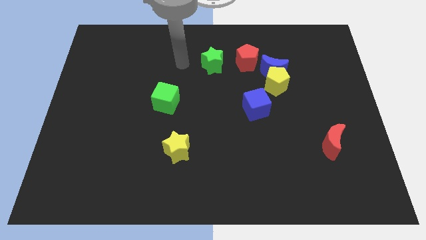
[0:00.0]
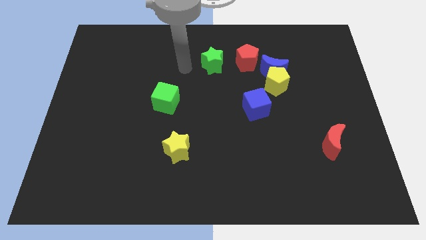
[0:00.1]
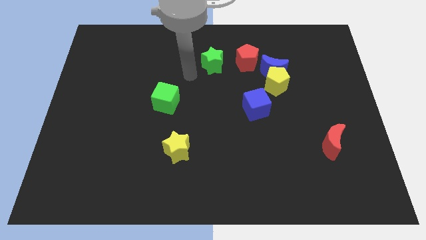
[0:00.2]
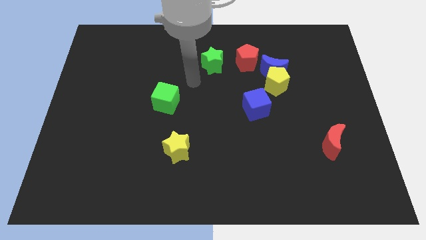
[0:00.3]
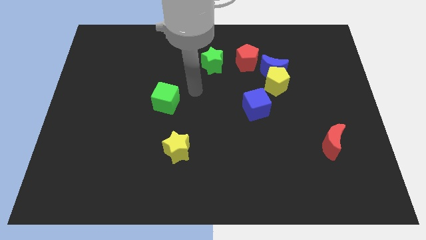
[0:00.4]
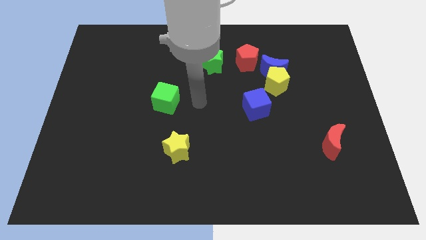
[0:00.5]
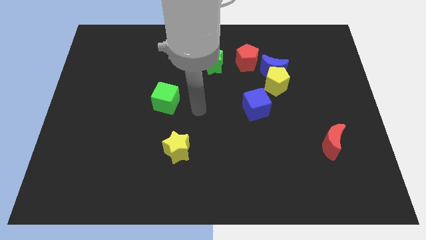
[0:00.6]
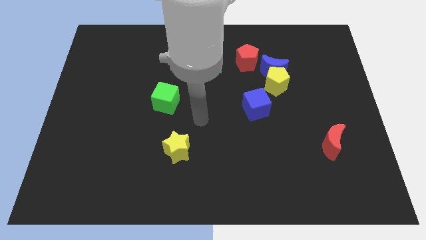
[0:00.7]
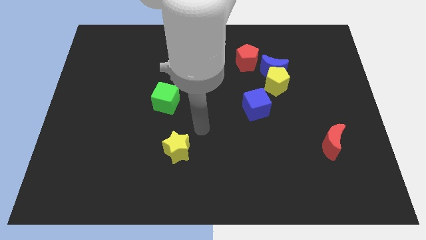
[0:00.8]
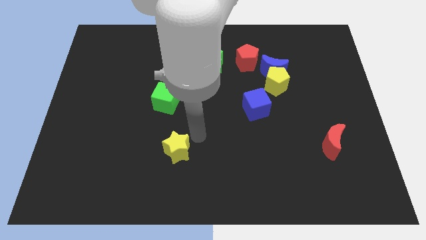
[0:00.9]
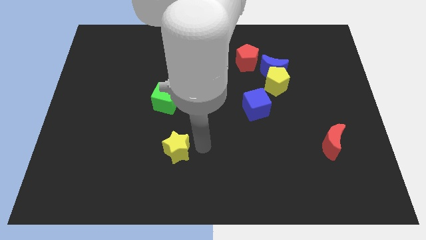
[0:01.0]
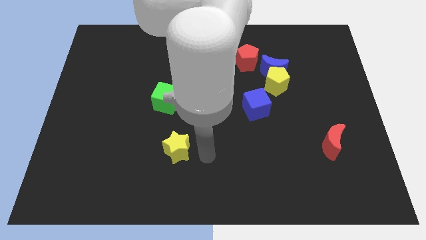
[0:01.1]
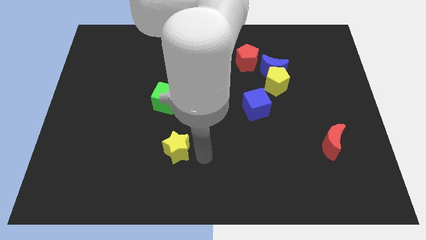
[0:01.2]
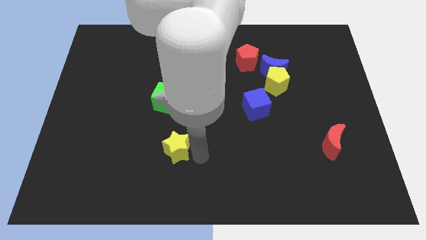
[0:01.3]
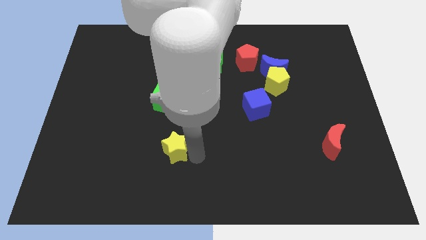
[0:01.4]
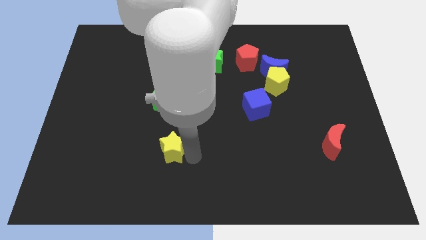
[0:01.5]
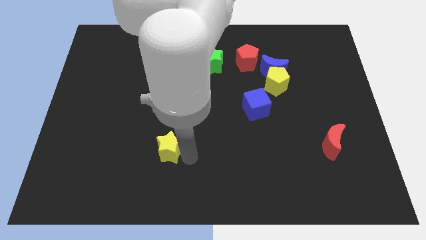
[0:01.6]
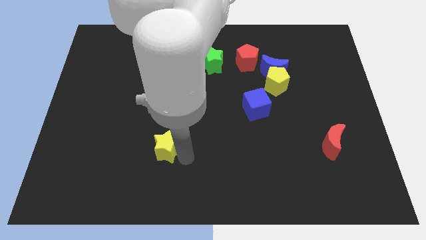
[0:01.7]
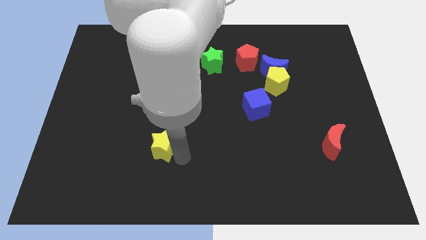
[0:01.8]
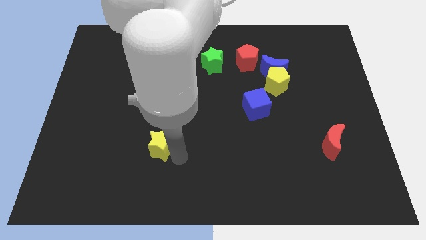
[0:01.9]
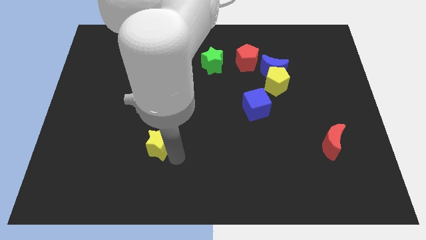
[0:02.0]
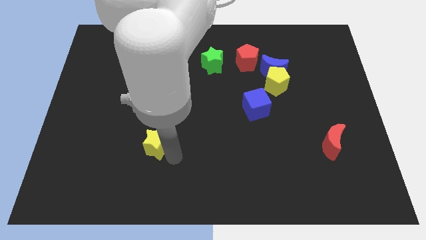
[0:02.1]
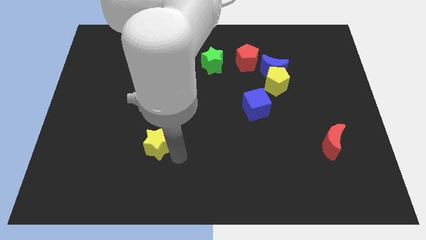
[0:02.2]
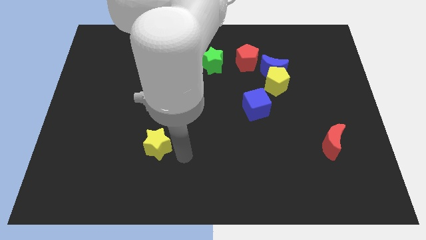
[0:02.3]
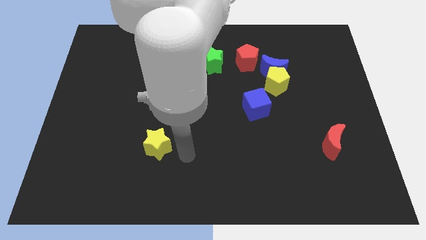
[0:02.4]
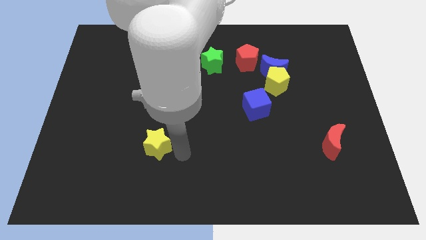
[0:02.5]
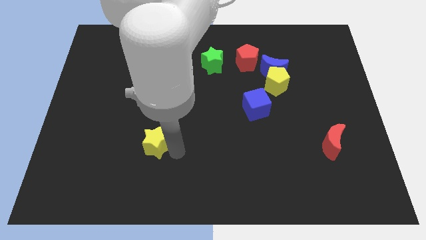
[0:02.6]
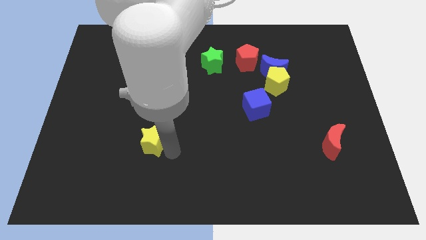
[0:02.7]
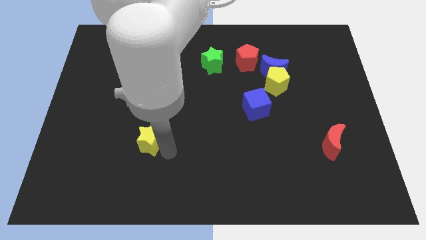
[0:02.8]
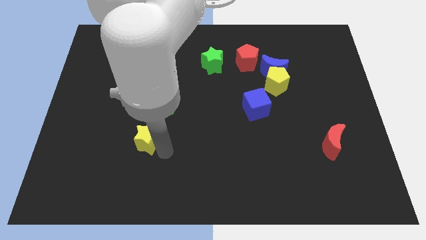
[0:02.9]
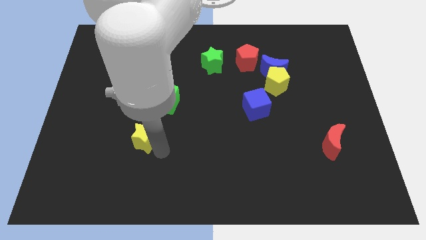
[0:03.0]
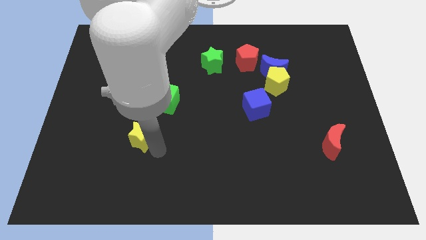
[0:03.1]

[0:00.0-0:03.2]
slightly move the yellow star up and then left

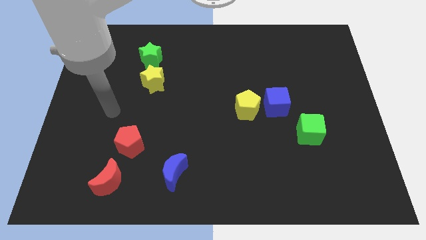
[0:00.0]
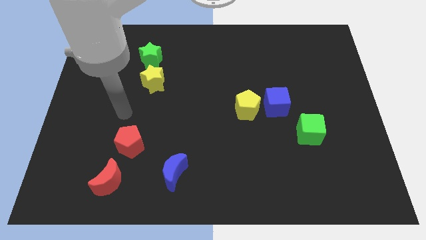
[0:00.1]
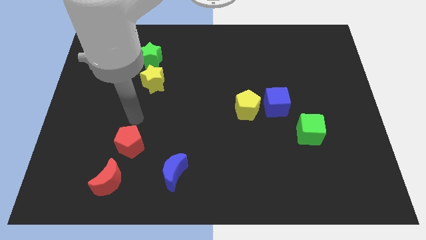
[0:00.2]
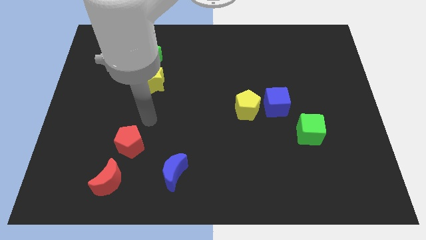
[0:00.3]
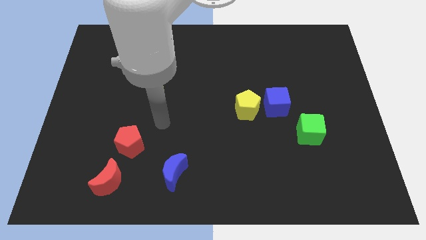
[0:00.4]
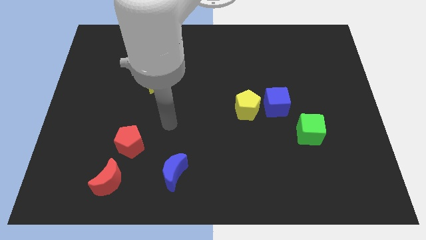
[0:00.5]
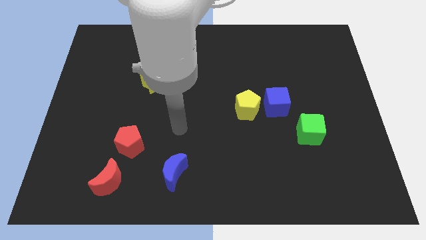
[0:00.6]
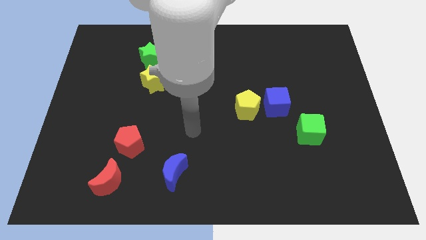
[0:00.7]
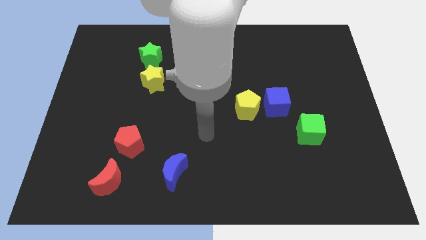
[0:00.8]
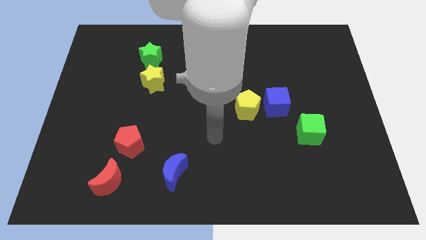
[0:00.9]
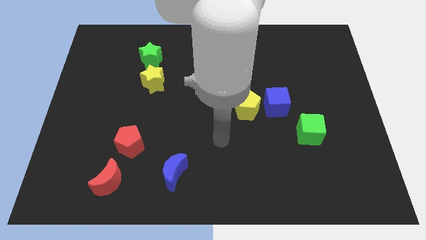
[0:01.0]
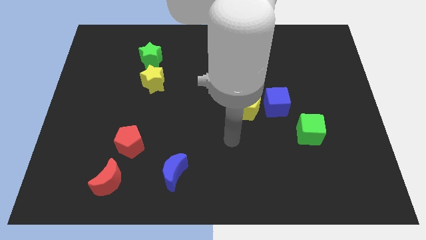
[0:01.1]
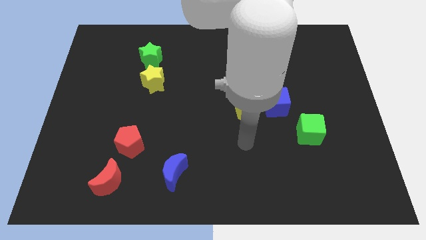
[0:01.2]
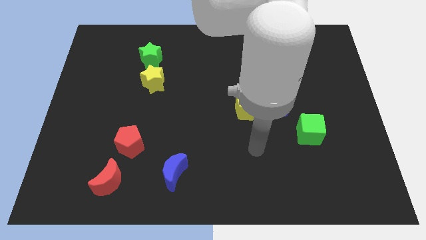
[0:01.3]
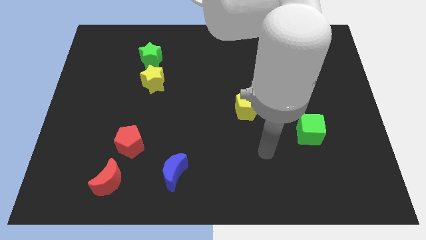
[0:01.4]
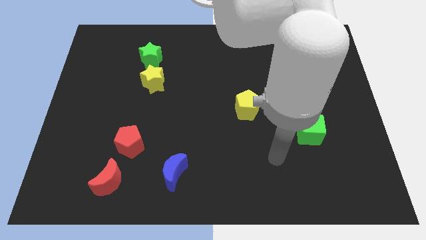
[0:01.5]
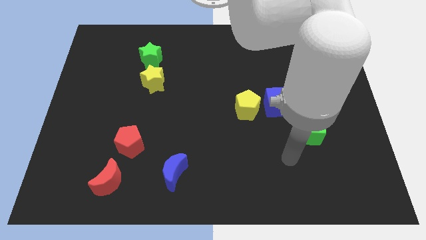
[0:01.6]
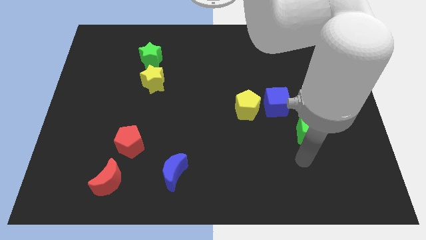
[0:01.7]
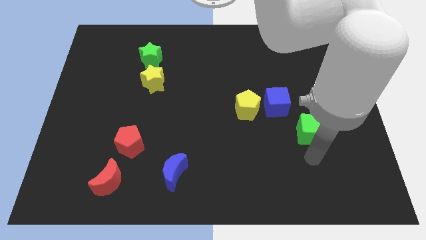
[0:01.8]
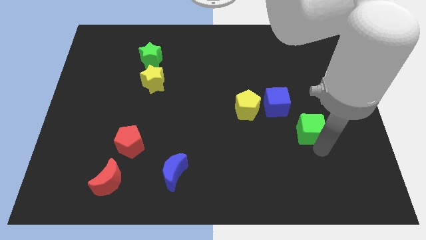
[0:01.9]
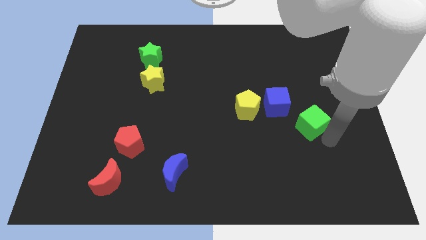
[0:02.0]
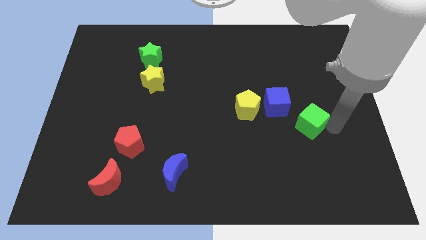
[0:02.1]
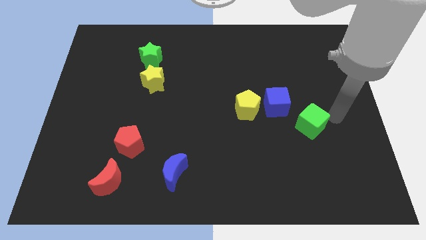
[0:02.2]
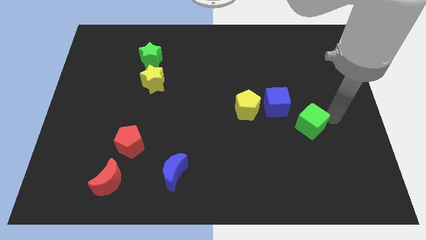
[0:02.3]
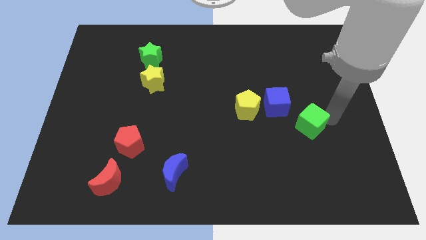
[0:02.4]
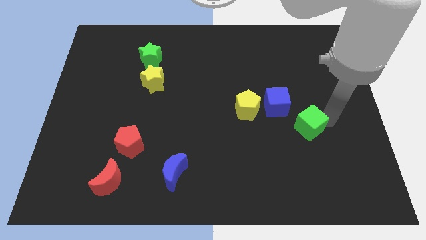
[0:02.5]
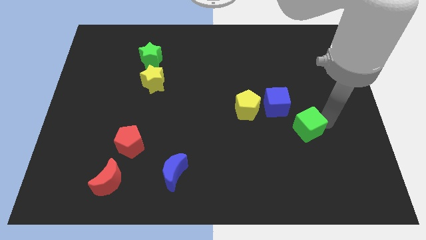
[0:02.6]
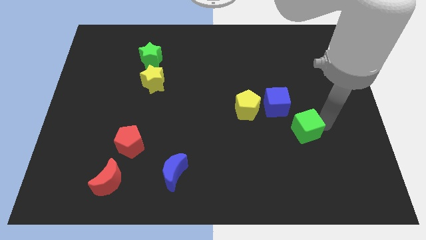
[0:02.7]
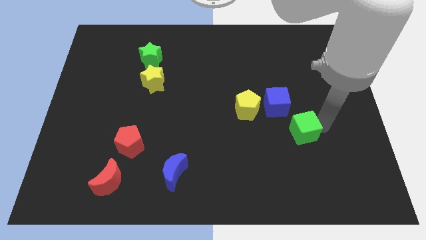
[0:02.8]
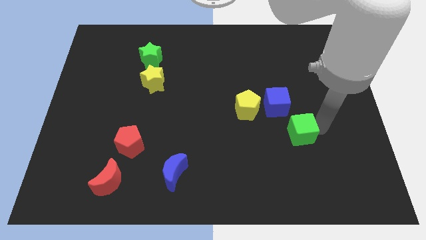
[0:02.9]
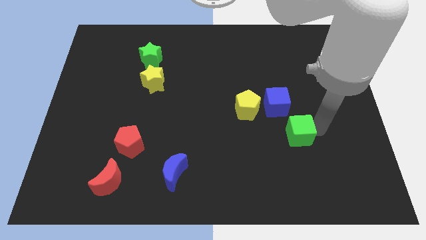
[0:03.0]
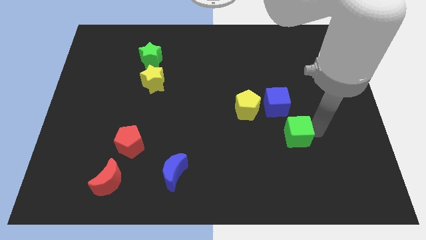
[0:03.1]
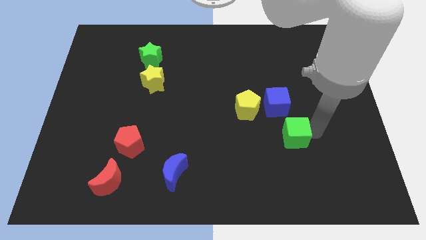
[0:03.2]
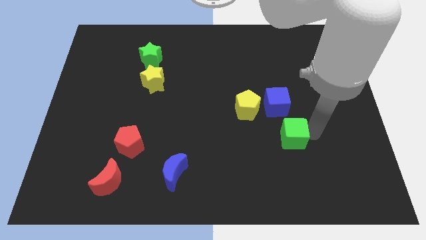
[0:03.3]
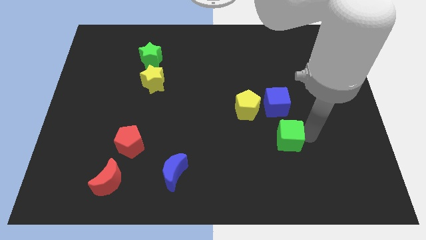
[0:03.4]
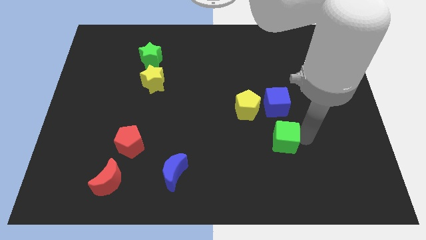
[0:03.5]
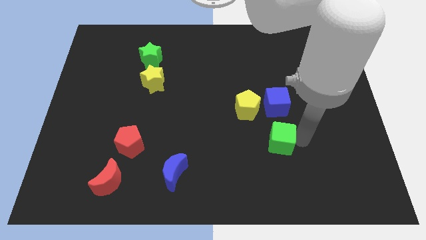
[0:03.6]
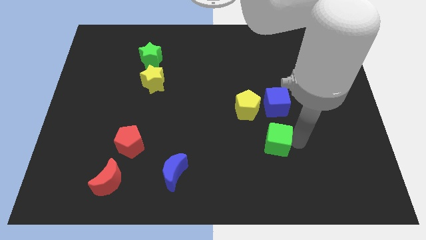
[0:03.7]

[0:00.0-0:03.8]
slightly push the green cube to the left

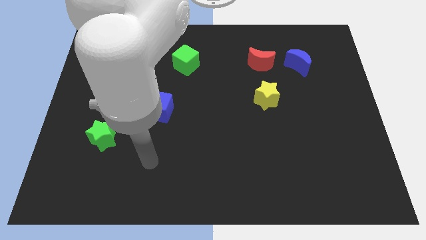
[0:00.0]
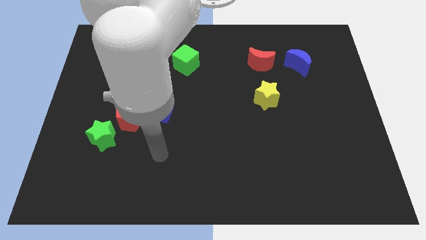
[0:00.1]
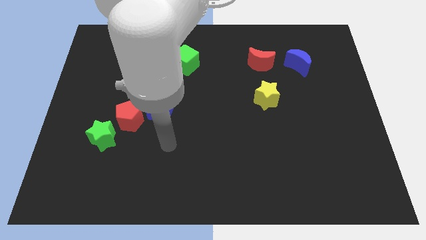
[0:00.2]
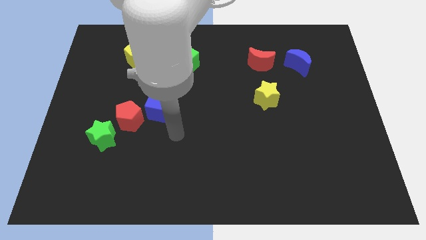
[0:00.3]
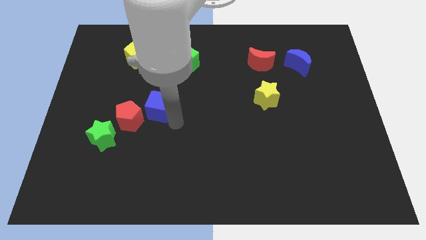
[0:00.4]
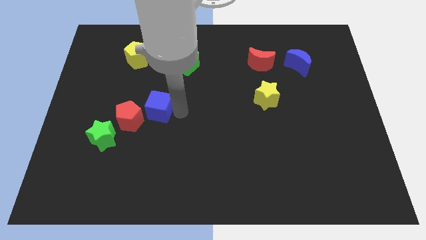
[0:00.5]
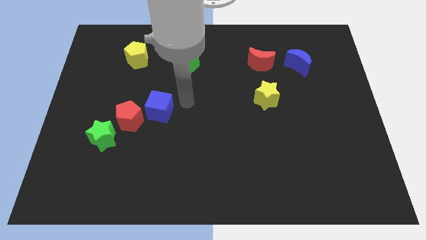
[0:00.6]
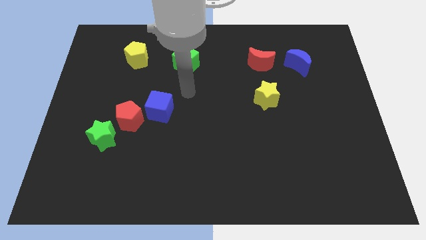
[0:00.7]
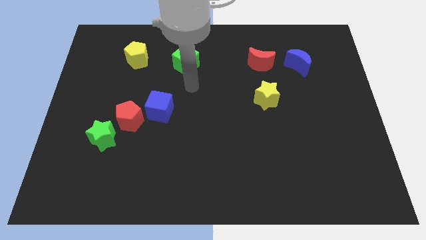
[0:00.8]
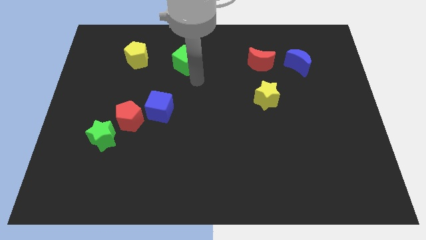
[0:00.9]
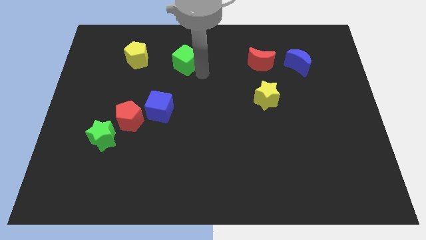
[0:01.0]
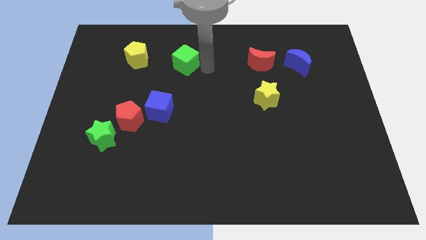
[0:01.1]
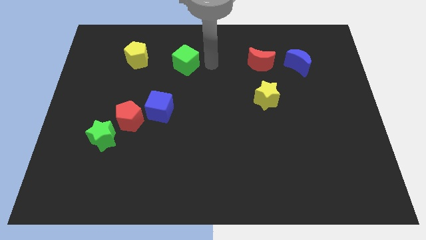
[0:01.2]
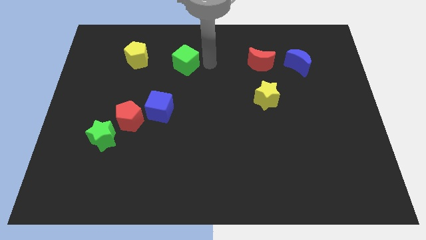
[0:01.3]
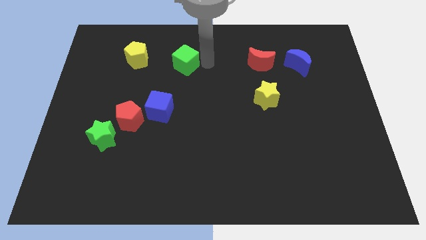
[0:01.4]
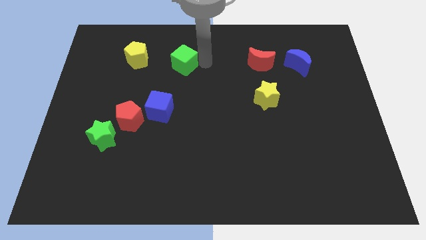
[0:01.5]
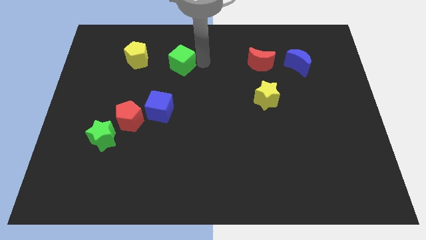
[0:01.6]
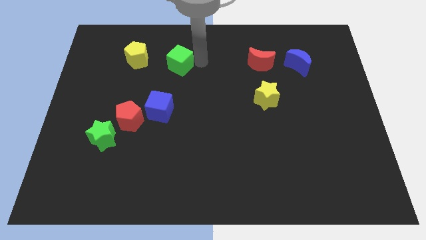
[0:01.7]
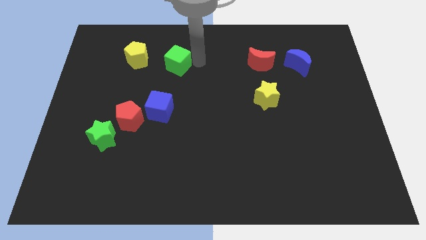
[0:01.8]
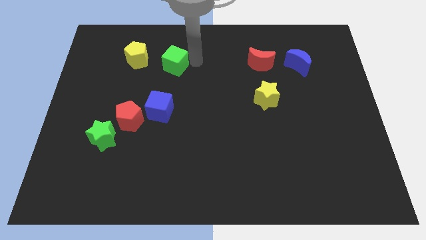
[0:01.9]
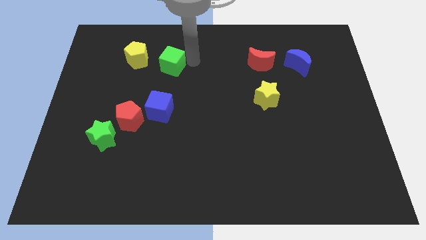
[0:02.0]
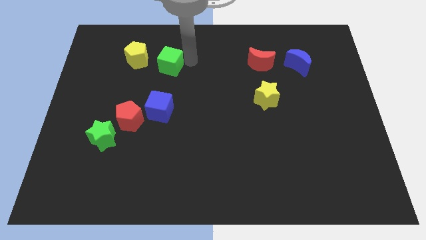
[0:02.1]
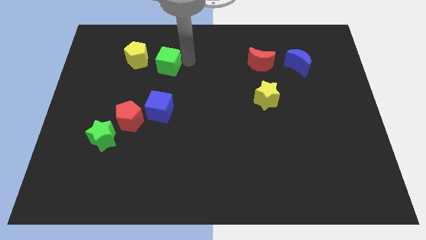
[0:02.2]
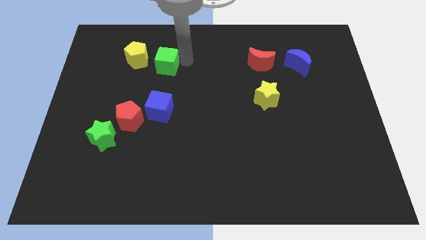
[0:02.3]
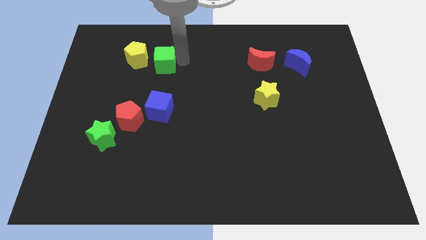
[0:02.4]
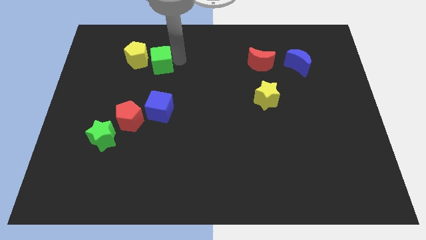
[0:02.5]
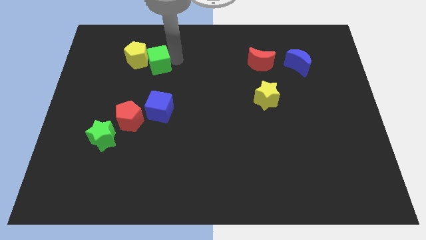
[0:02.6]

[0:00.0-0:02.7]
slightly push the green cube left
